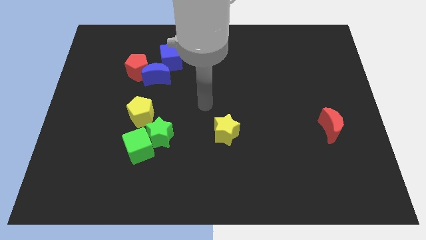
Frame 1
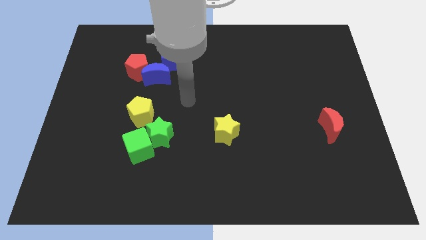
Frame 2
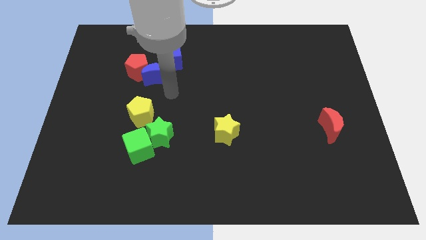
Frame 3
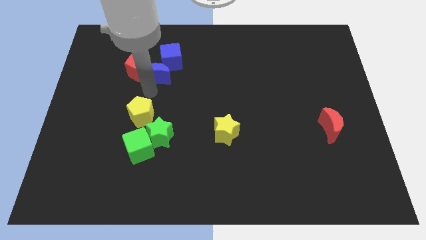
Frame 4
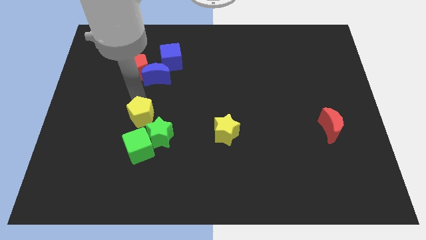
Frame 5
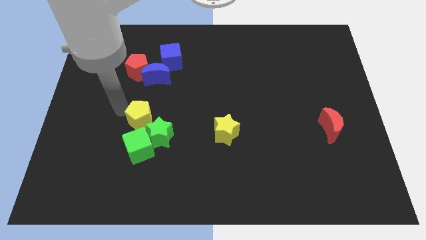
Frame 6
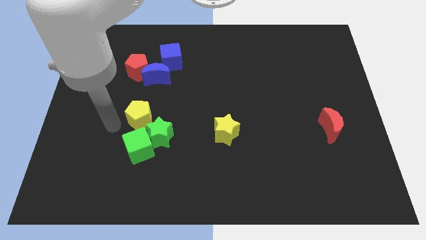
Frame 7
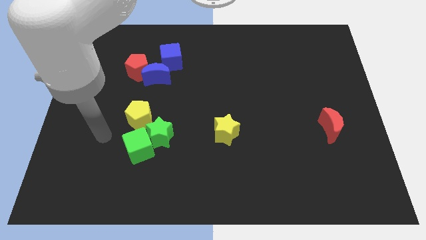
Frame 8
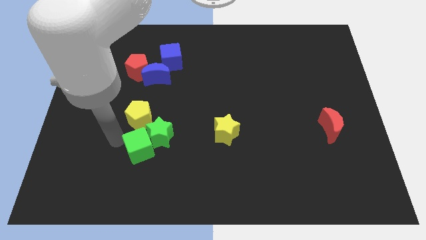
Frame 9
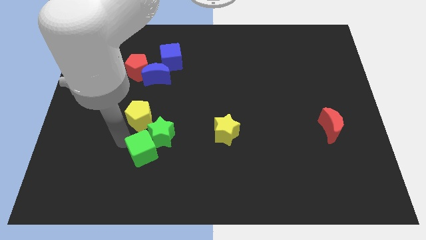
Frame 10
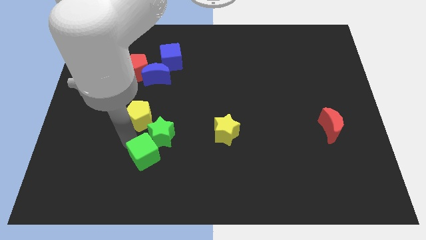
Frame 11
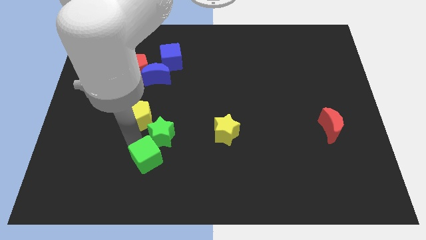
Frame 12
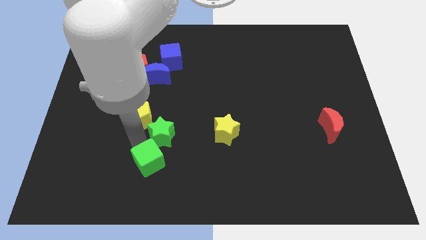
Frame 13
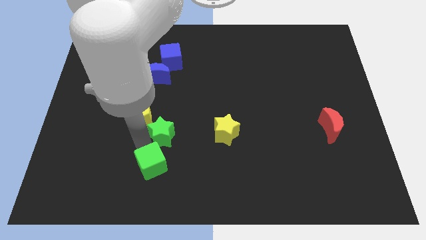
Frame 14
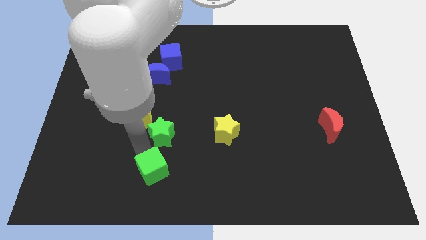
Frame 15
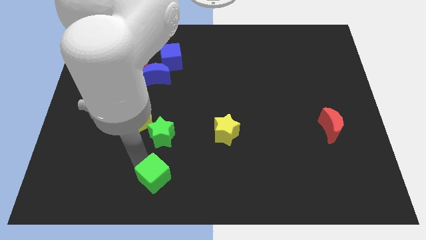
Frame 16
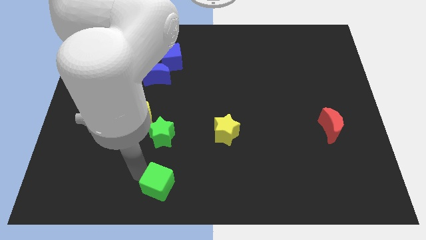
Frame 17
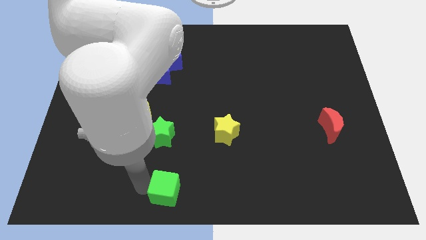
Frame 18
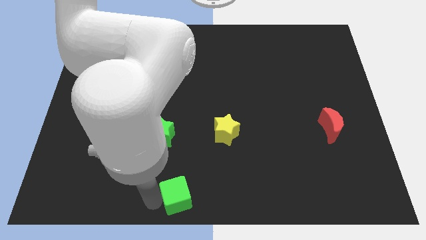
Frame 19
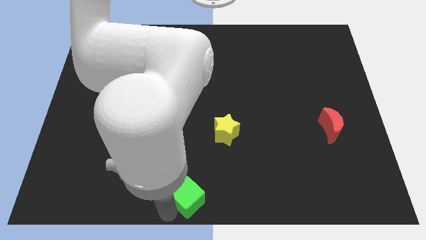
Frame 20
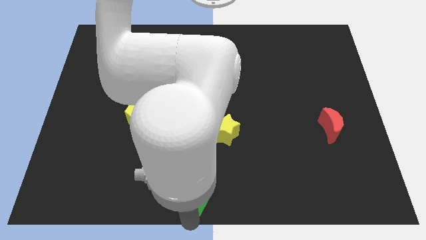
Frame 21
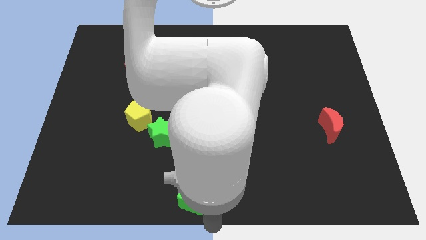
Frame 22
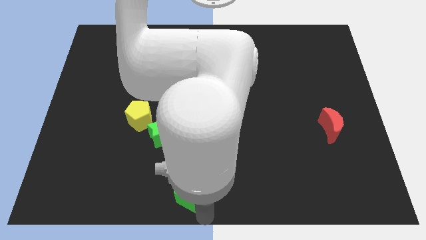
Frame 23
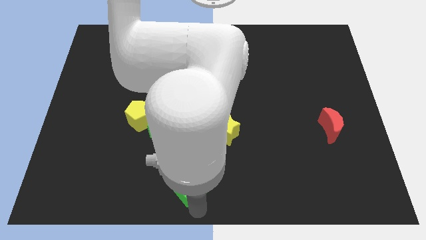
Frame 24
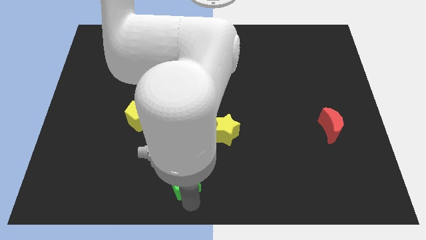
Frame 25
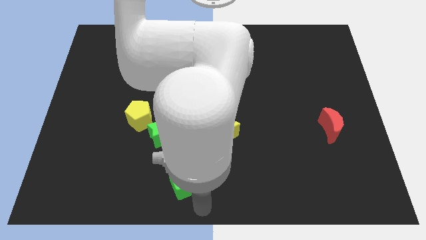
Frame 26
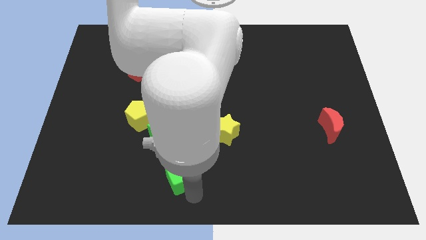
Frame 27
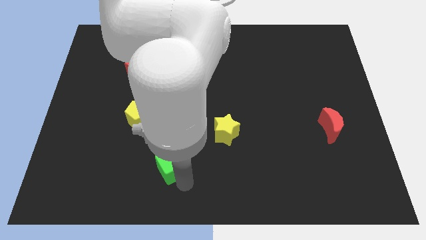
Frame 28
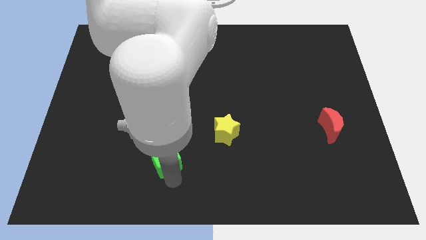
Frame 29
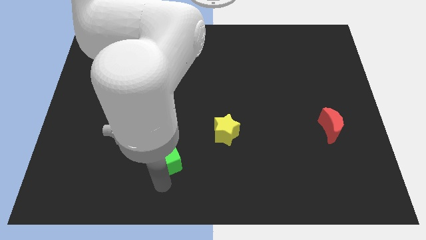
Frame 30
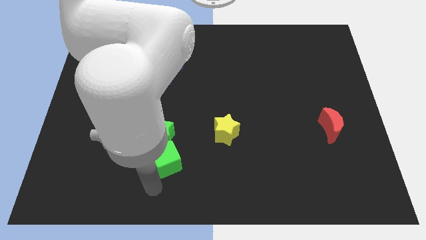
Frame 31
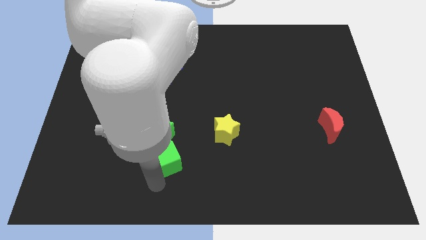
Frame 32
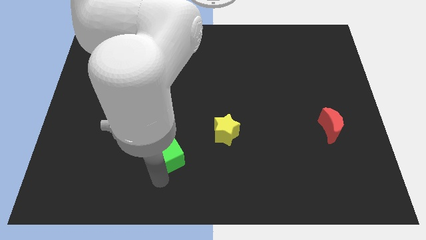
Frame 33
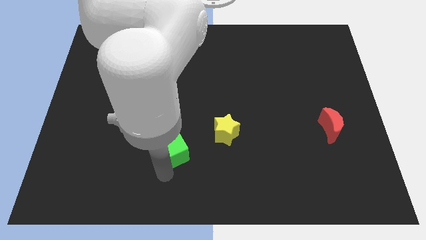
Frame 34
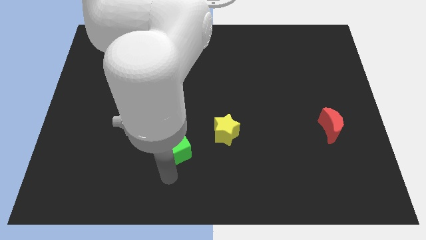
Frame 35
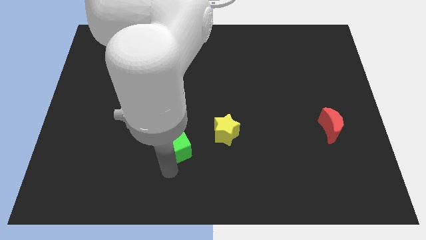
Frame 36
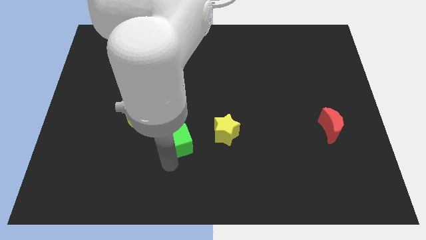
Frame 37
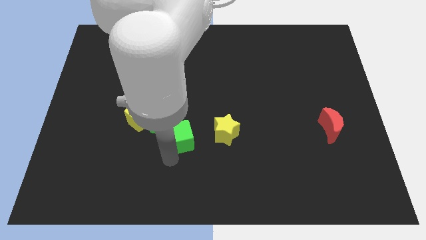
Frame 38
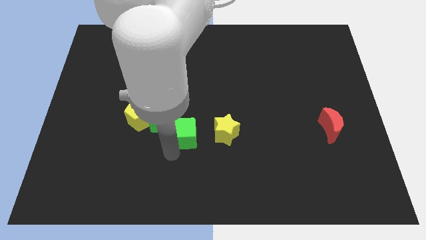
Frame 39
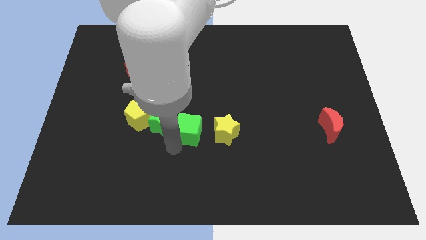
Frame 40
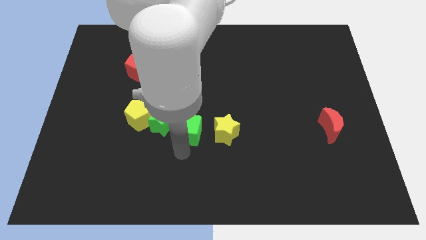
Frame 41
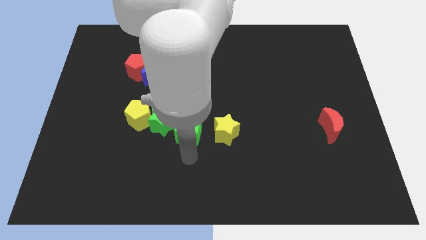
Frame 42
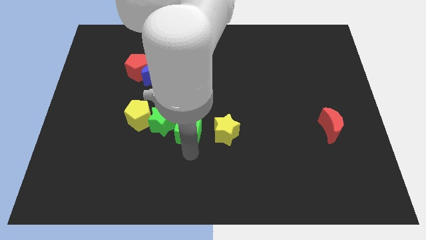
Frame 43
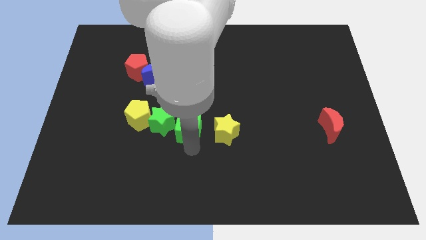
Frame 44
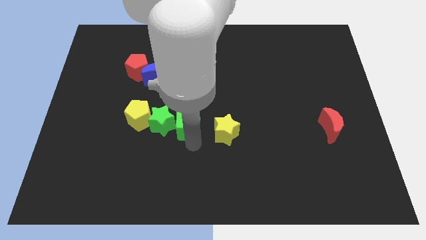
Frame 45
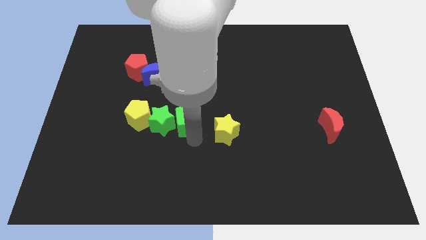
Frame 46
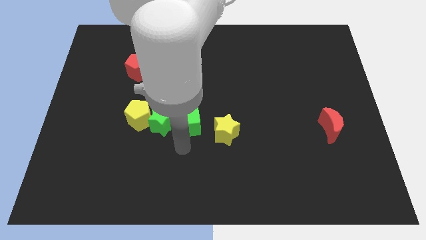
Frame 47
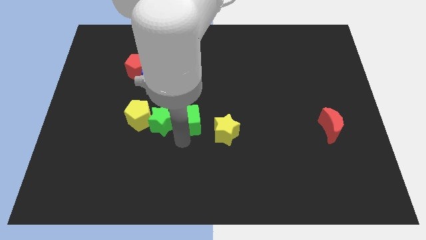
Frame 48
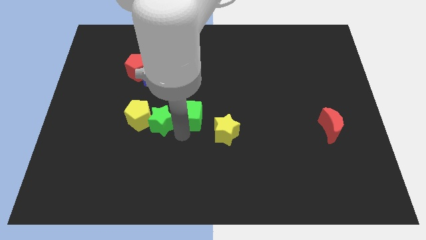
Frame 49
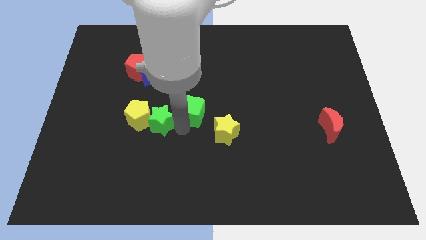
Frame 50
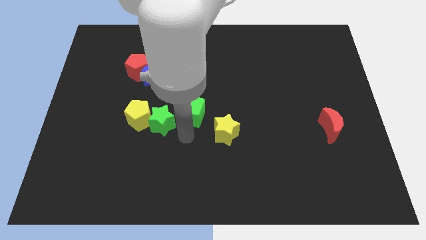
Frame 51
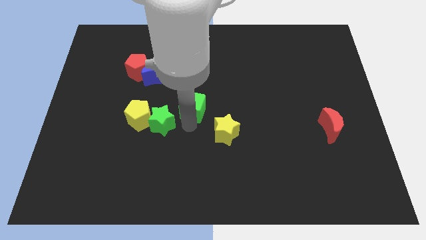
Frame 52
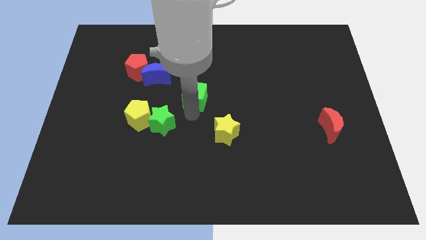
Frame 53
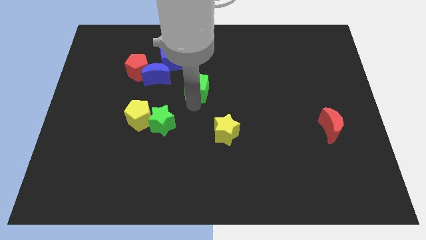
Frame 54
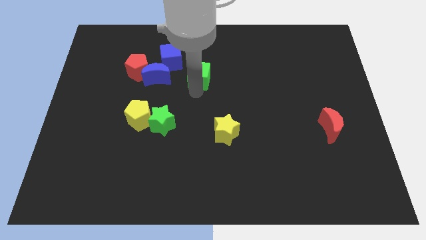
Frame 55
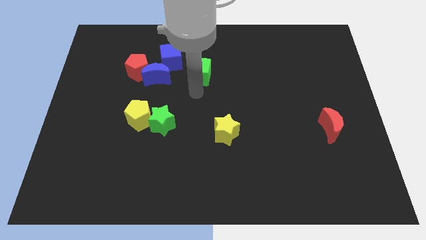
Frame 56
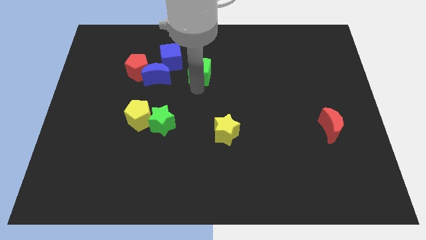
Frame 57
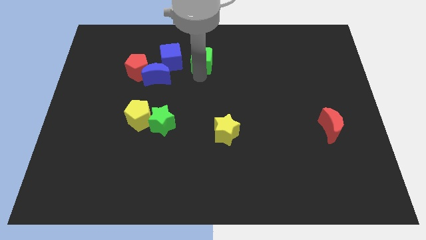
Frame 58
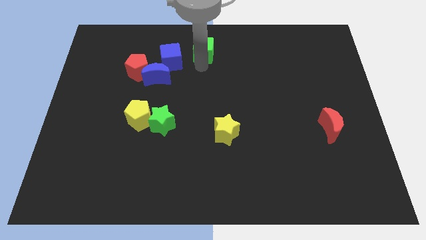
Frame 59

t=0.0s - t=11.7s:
push the green cube to the top
